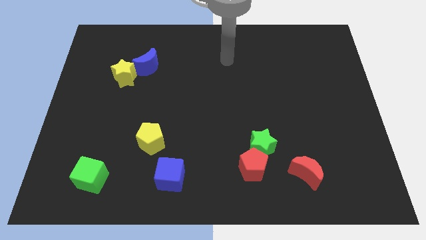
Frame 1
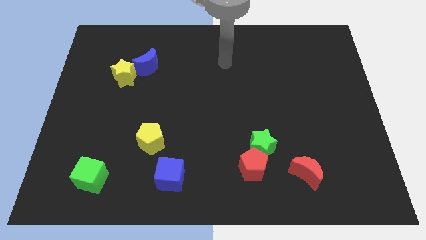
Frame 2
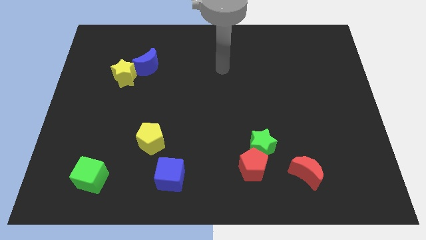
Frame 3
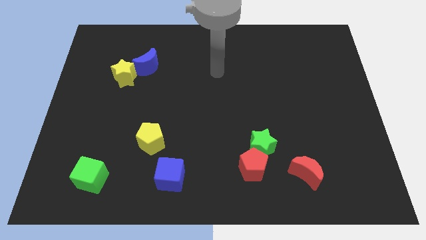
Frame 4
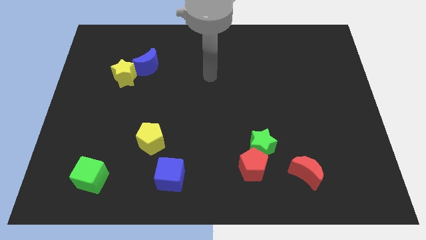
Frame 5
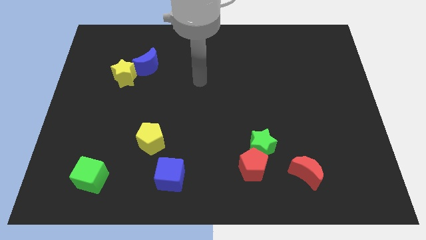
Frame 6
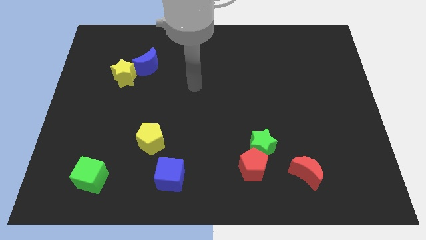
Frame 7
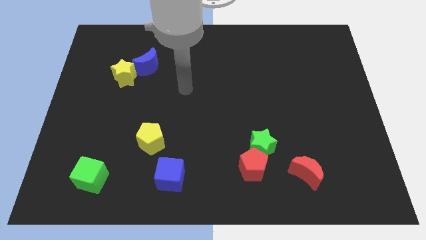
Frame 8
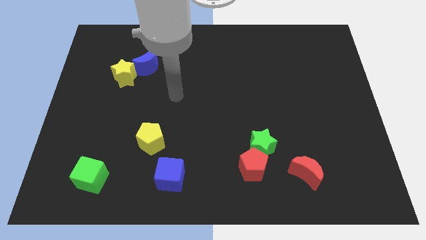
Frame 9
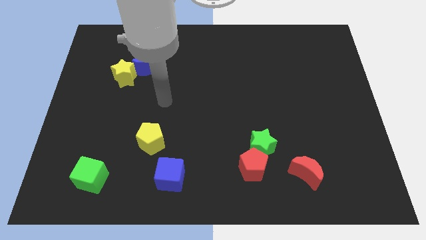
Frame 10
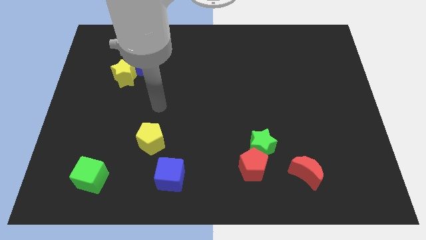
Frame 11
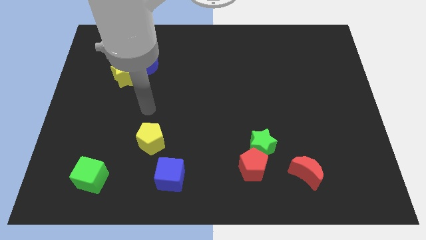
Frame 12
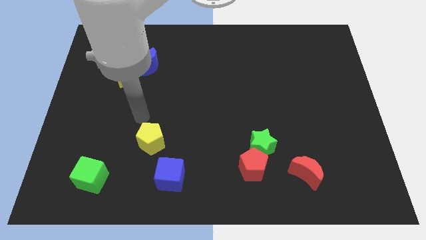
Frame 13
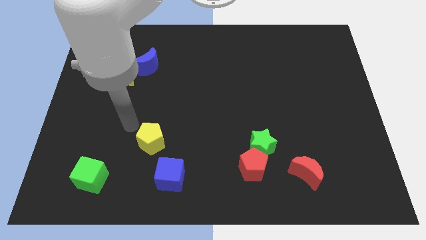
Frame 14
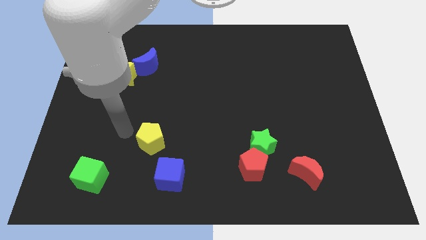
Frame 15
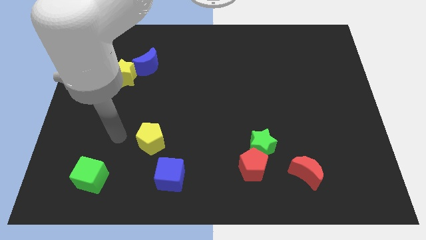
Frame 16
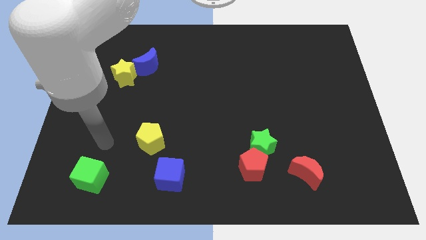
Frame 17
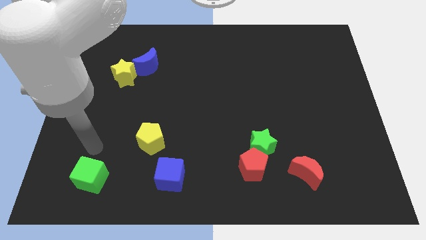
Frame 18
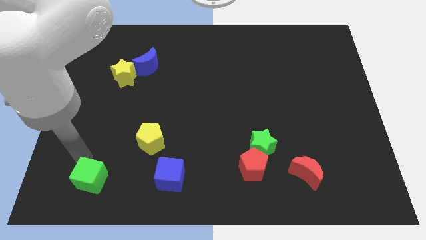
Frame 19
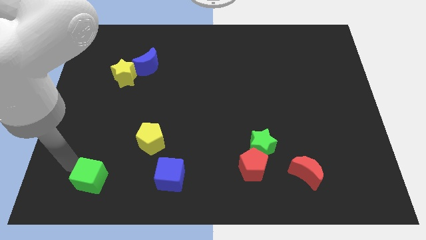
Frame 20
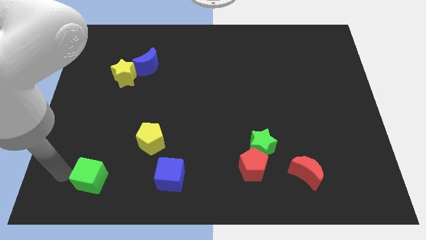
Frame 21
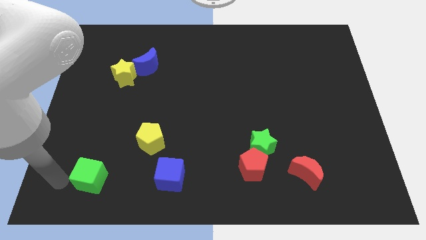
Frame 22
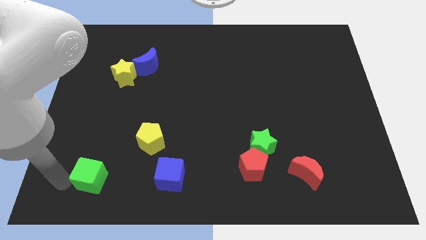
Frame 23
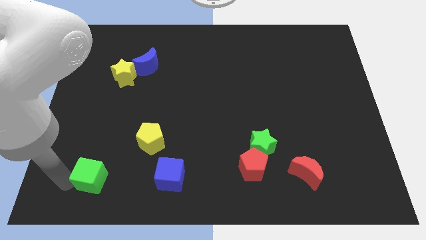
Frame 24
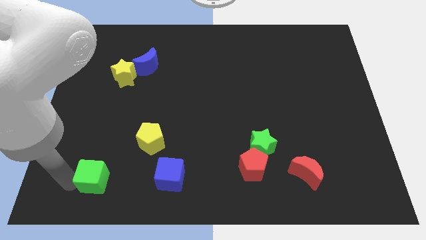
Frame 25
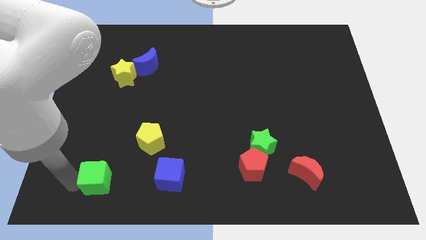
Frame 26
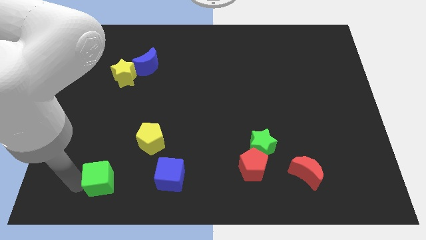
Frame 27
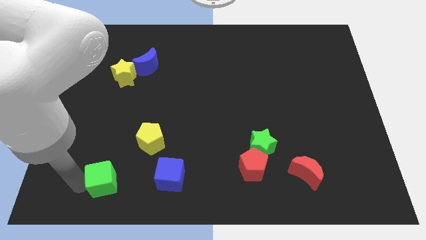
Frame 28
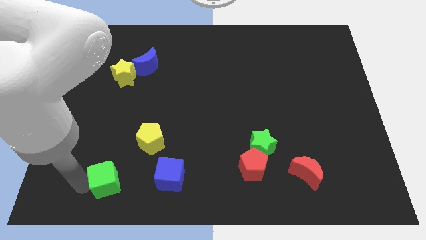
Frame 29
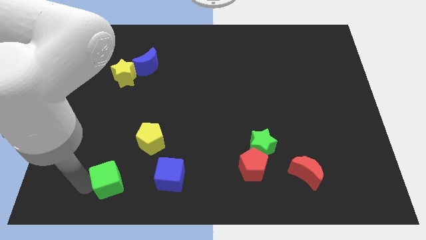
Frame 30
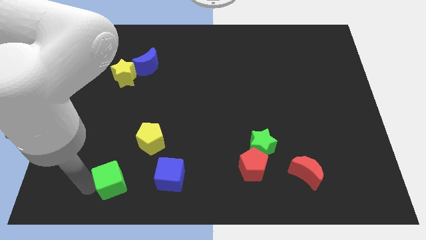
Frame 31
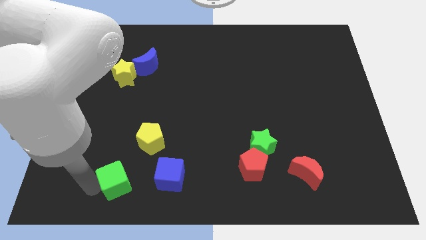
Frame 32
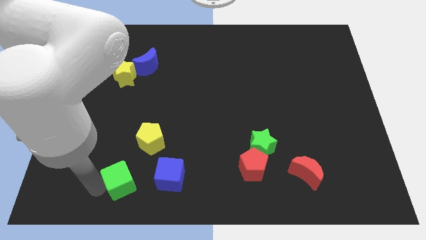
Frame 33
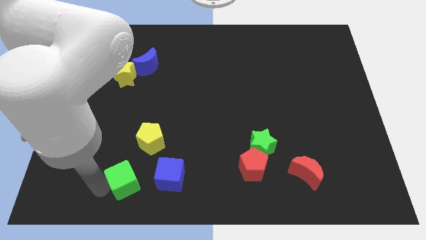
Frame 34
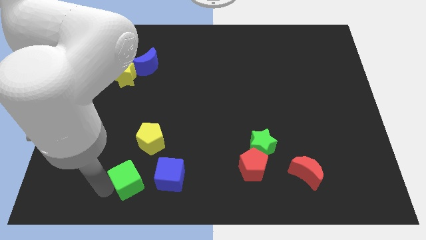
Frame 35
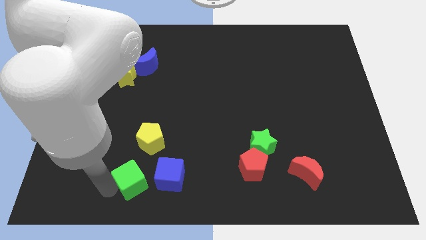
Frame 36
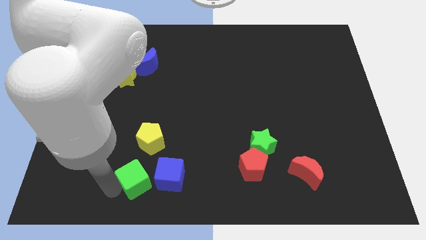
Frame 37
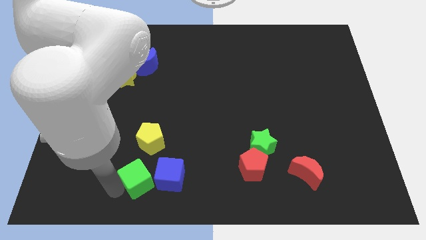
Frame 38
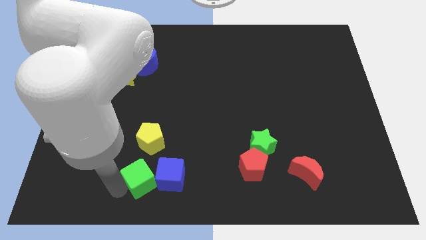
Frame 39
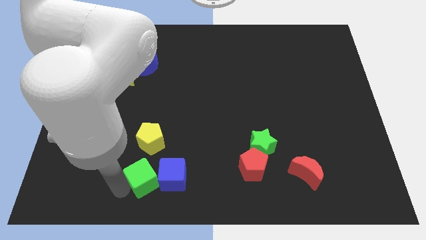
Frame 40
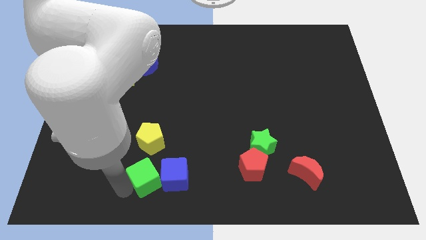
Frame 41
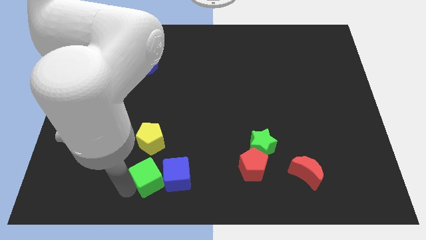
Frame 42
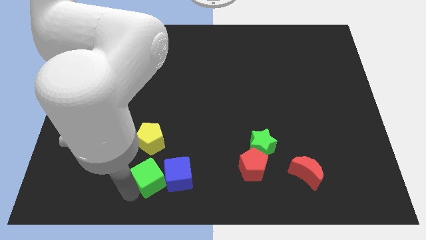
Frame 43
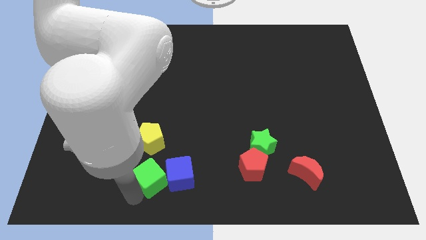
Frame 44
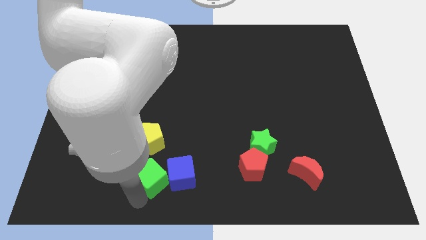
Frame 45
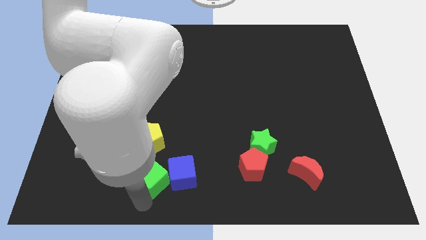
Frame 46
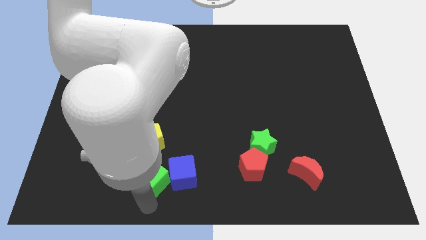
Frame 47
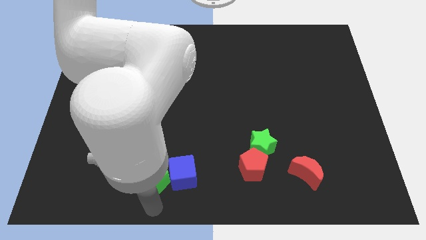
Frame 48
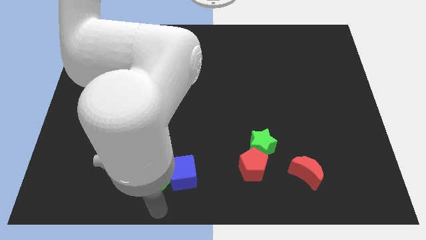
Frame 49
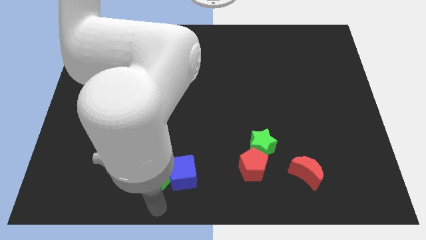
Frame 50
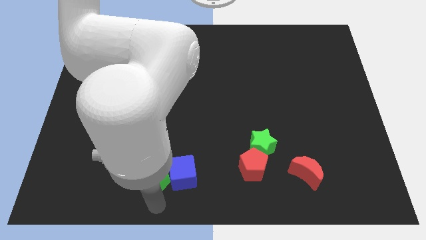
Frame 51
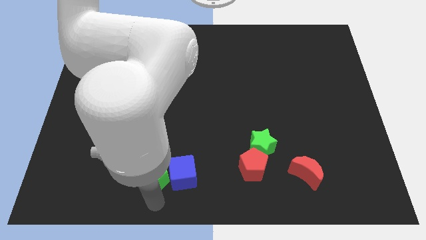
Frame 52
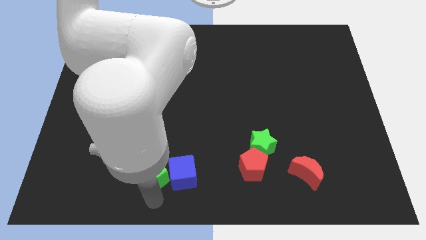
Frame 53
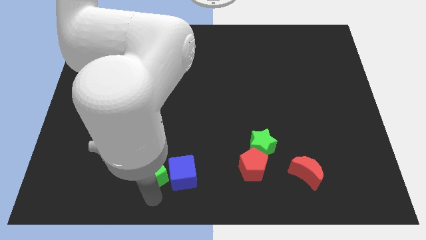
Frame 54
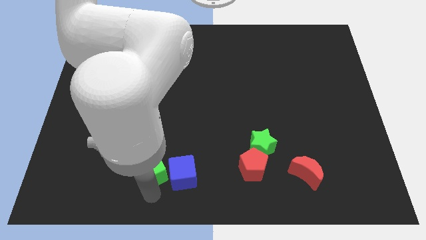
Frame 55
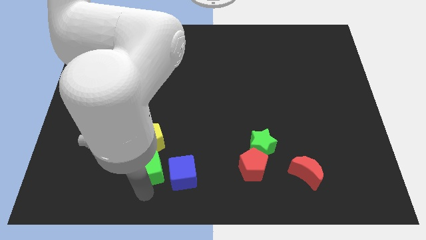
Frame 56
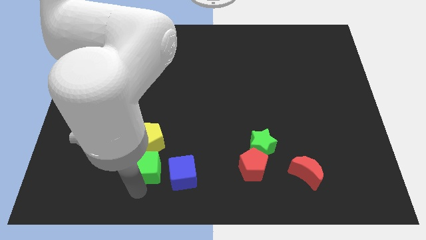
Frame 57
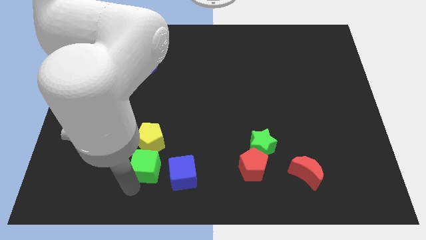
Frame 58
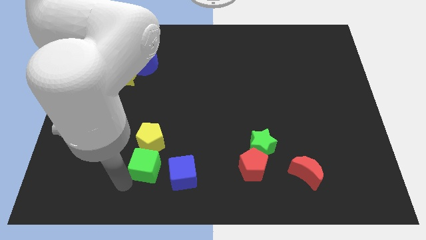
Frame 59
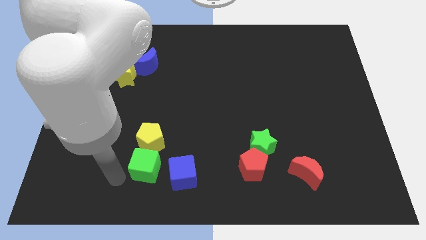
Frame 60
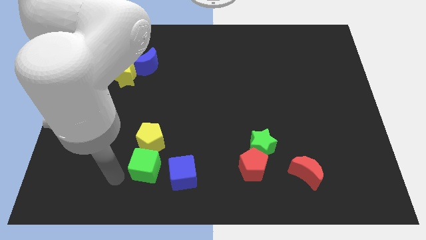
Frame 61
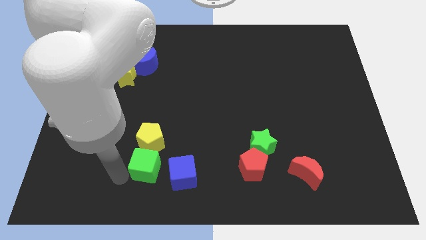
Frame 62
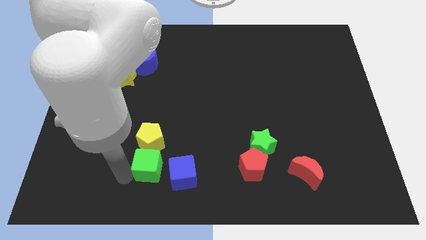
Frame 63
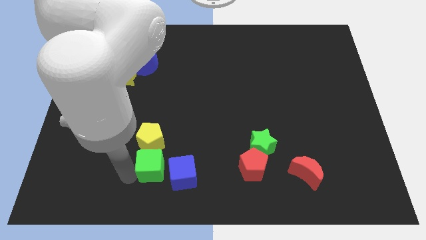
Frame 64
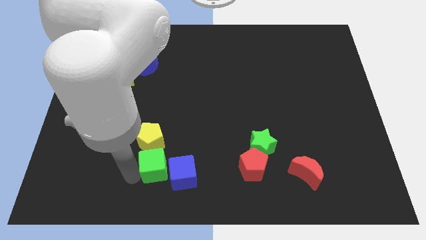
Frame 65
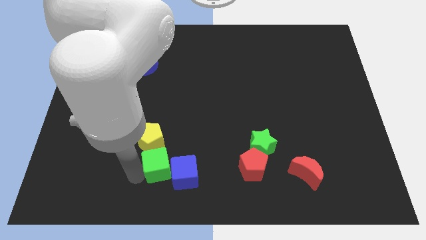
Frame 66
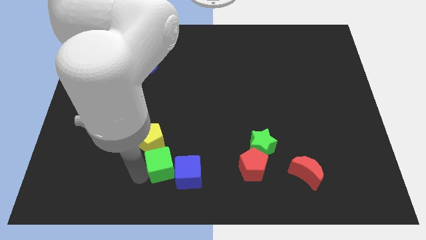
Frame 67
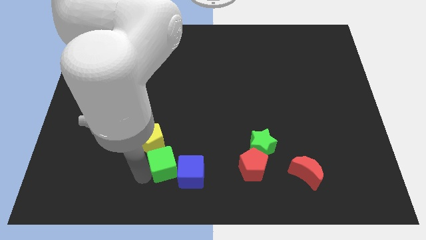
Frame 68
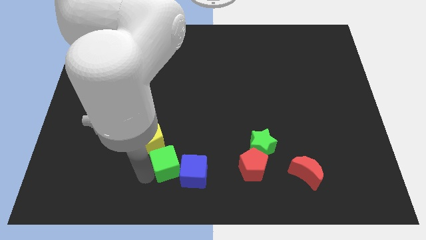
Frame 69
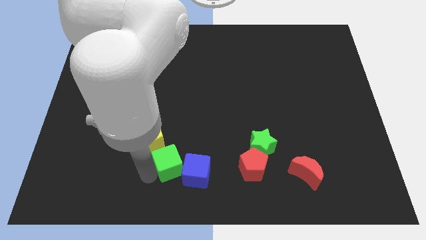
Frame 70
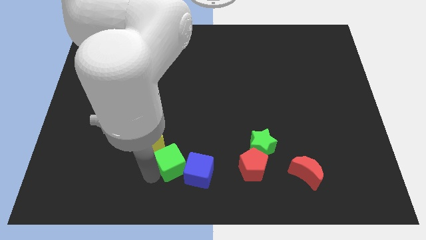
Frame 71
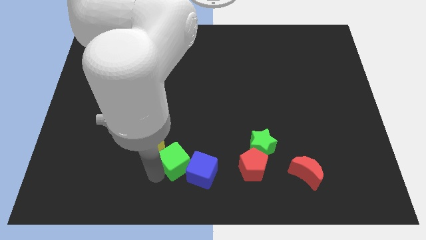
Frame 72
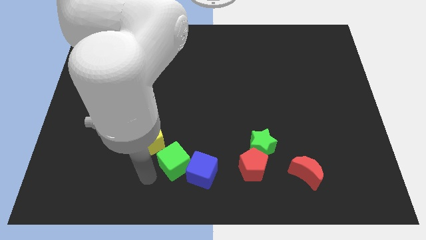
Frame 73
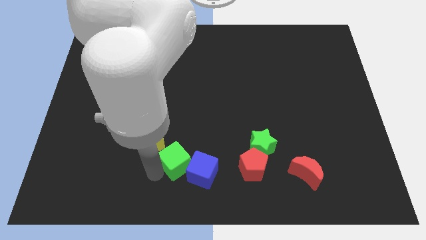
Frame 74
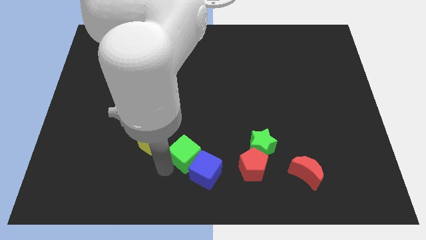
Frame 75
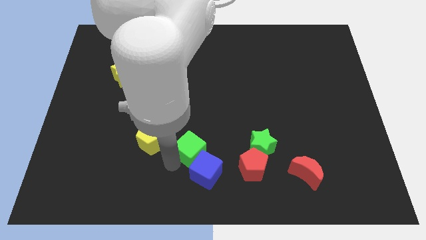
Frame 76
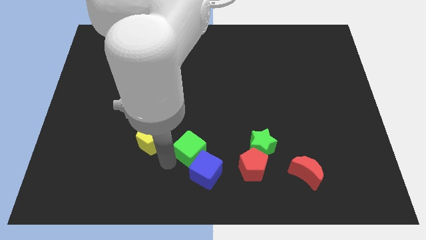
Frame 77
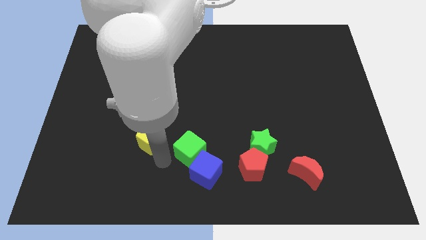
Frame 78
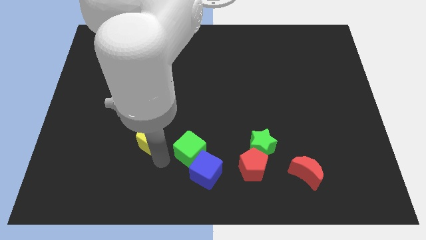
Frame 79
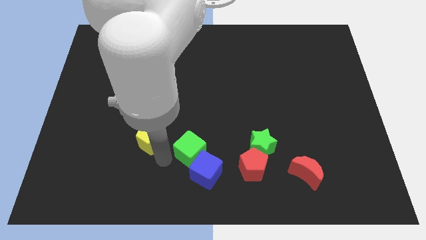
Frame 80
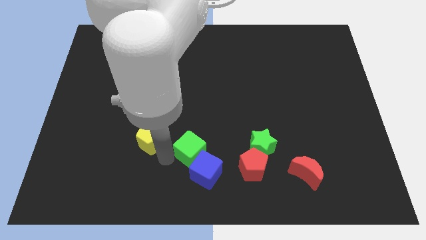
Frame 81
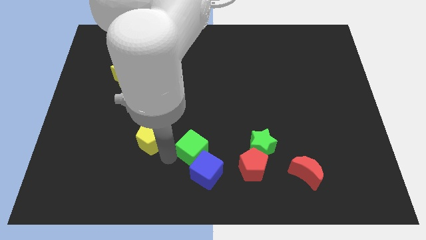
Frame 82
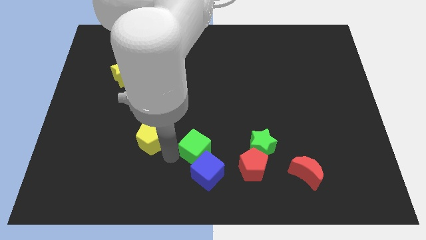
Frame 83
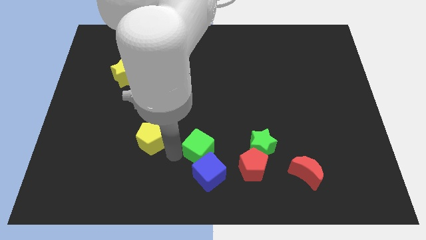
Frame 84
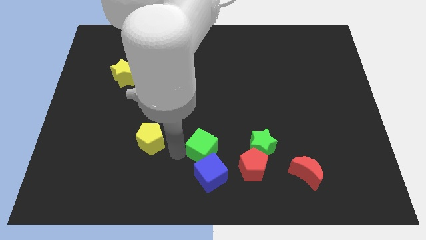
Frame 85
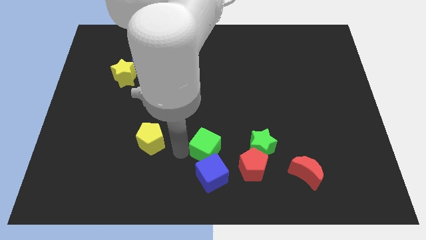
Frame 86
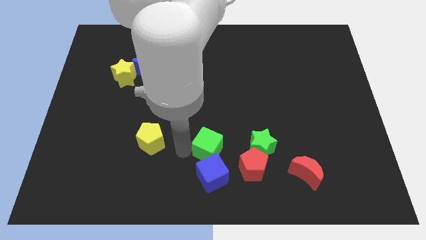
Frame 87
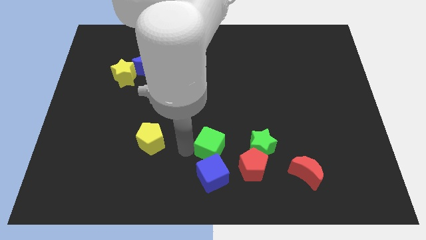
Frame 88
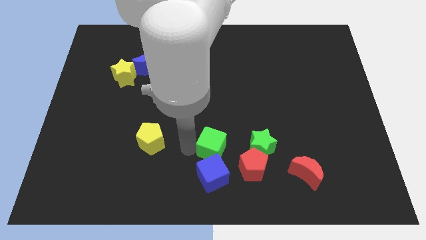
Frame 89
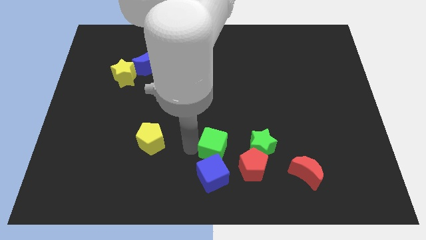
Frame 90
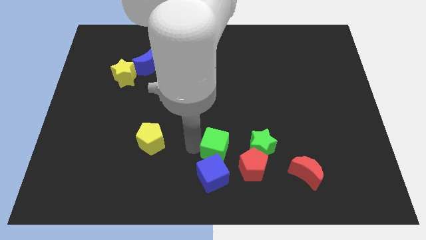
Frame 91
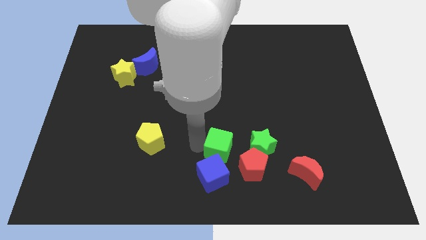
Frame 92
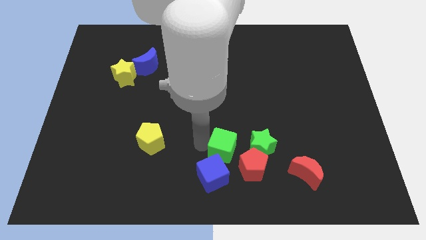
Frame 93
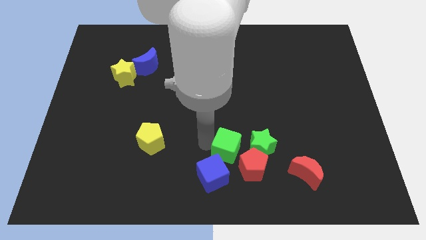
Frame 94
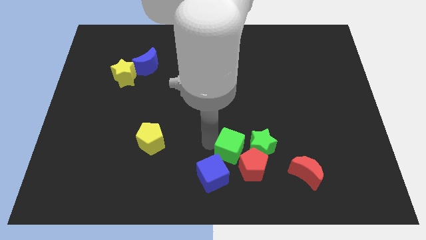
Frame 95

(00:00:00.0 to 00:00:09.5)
put the green cube above the red pentagon
